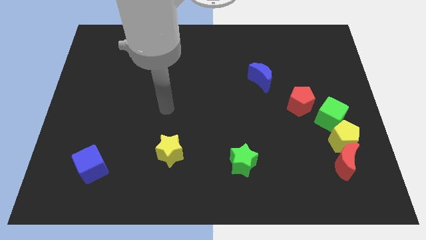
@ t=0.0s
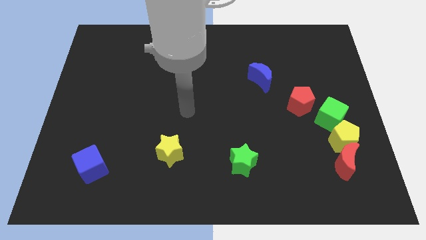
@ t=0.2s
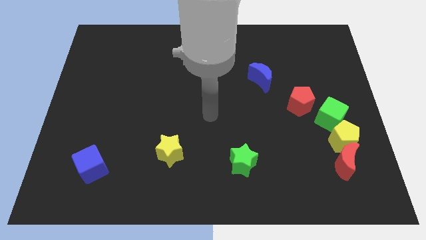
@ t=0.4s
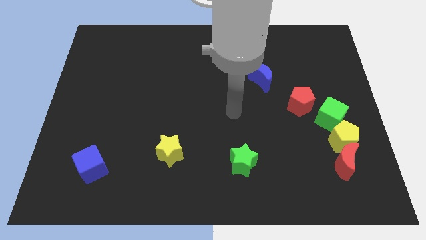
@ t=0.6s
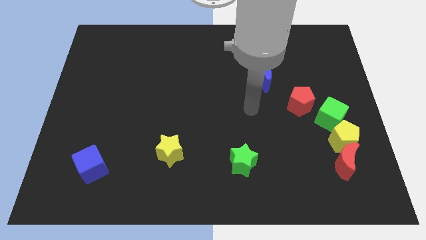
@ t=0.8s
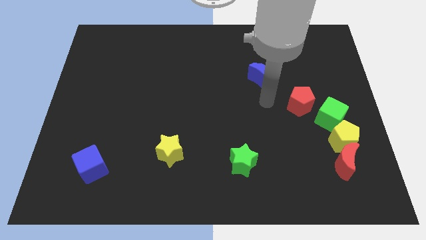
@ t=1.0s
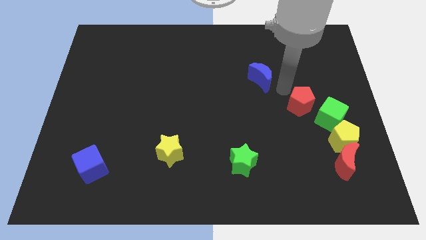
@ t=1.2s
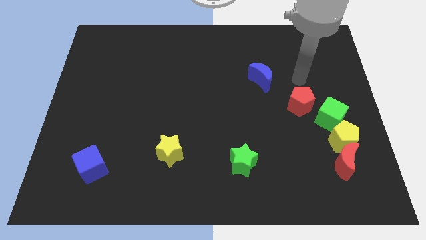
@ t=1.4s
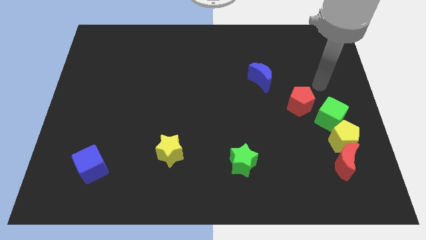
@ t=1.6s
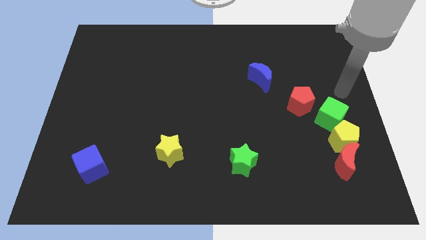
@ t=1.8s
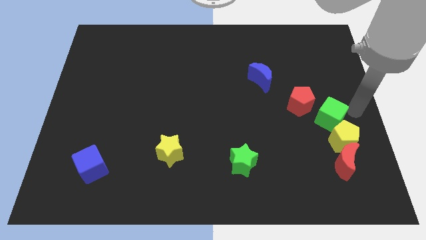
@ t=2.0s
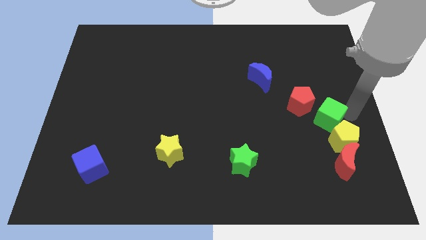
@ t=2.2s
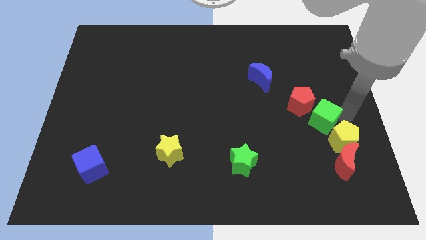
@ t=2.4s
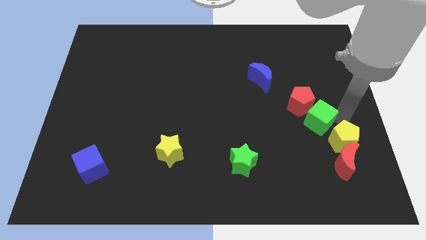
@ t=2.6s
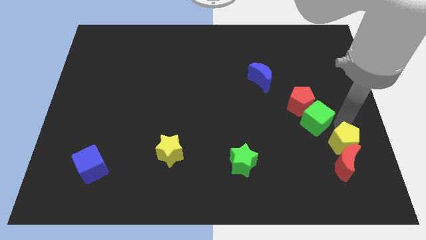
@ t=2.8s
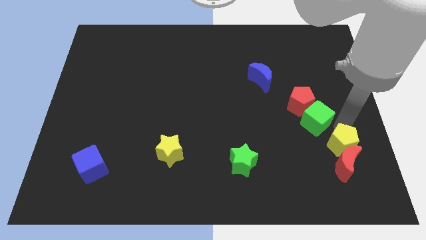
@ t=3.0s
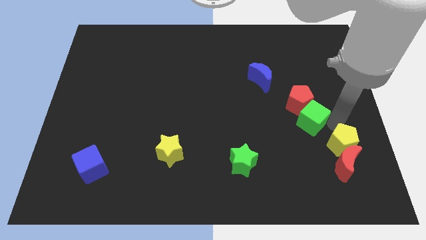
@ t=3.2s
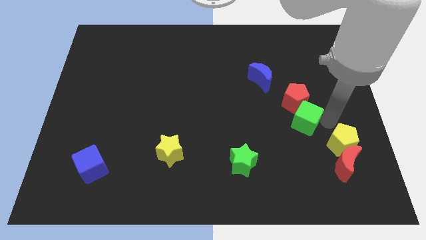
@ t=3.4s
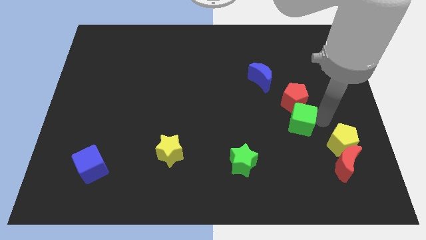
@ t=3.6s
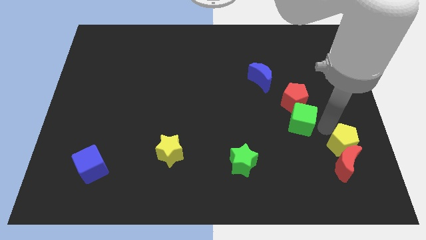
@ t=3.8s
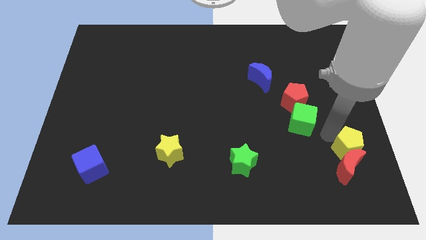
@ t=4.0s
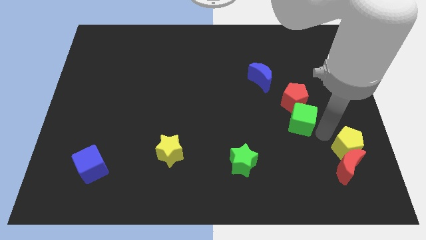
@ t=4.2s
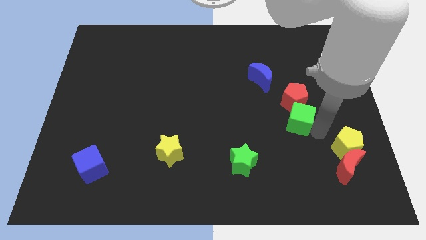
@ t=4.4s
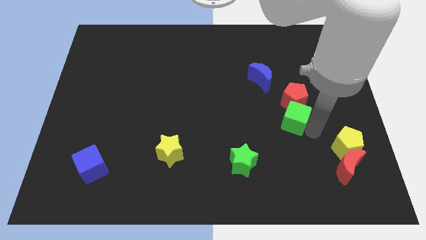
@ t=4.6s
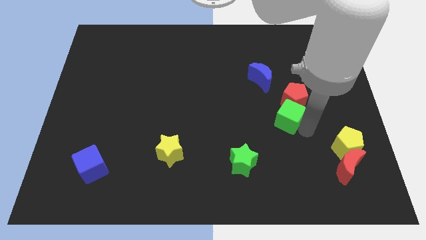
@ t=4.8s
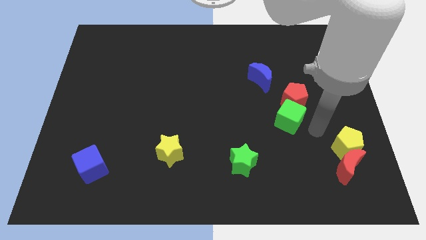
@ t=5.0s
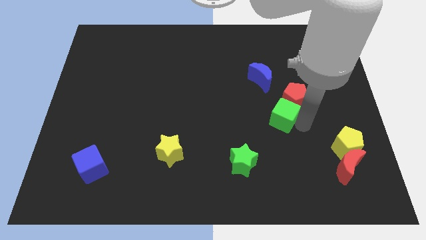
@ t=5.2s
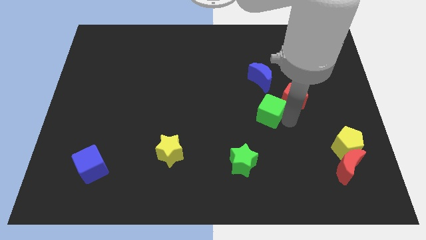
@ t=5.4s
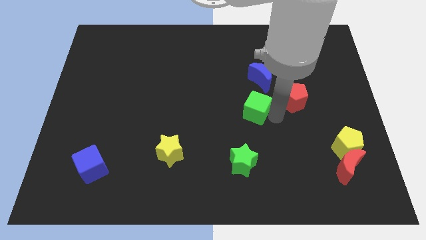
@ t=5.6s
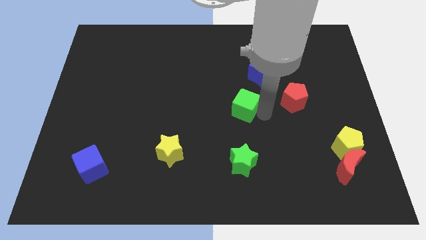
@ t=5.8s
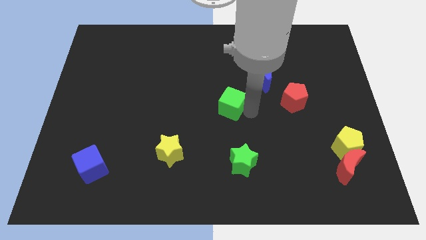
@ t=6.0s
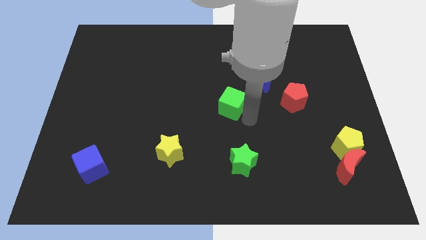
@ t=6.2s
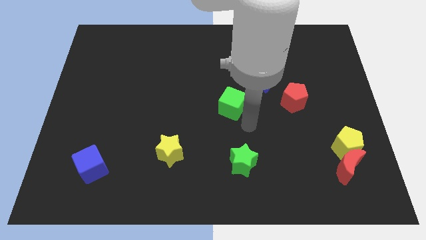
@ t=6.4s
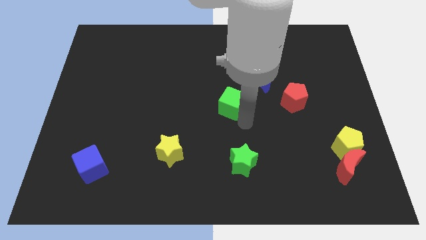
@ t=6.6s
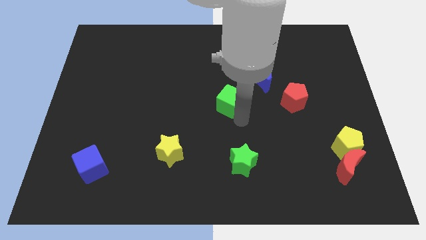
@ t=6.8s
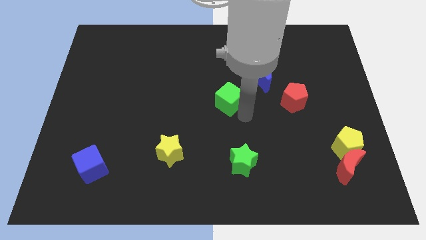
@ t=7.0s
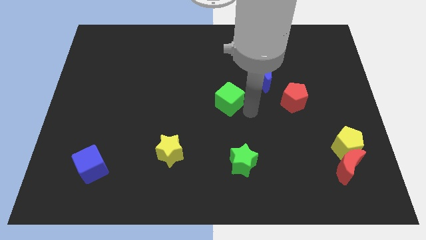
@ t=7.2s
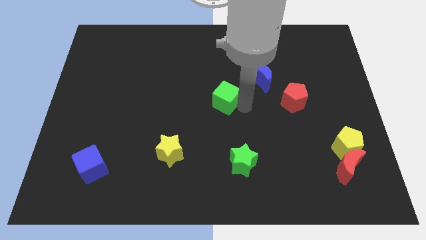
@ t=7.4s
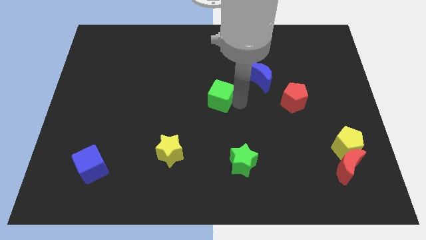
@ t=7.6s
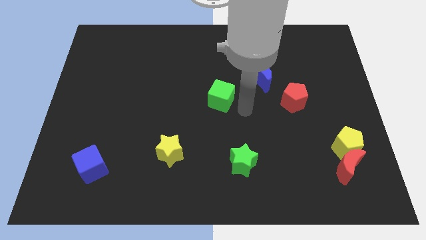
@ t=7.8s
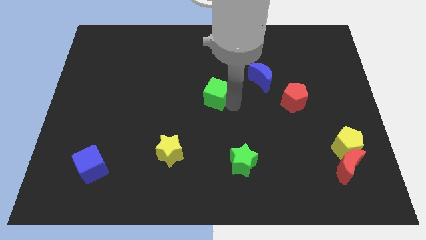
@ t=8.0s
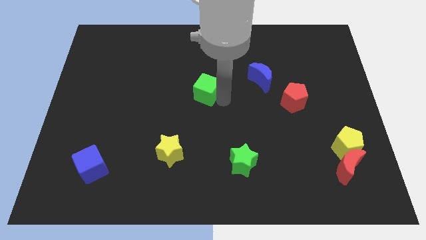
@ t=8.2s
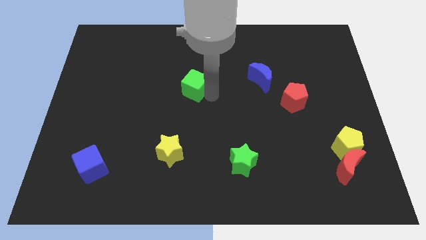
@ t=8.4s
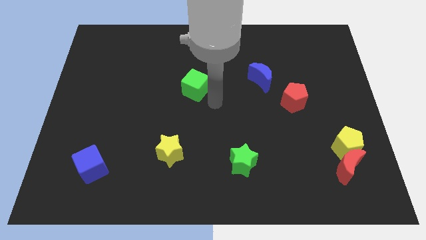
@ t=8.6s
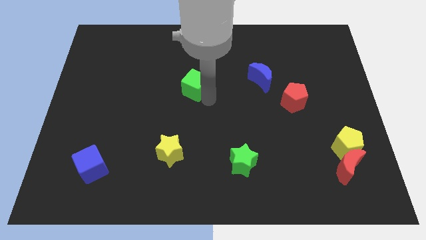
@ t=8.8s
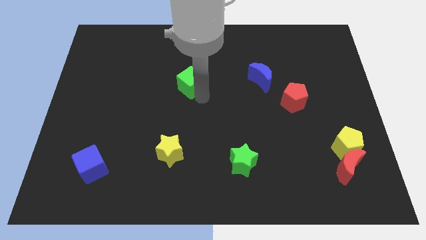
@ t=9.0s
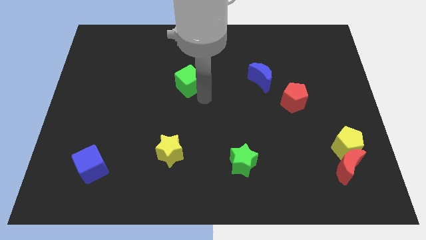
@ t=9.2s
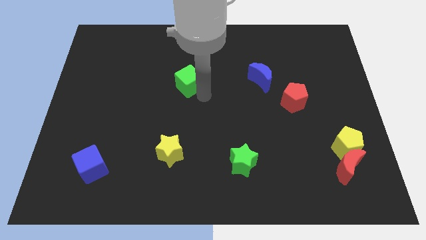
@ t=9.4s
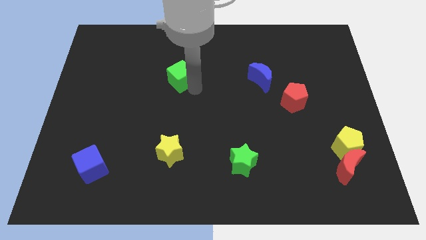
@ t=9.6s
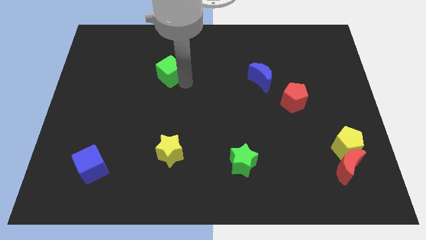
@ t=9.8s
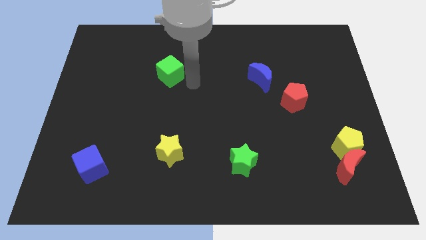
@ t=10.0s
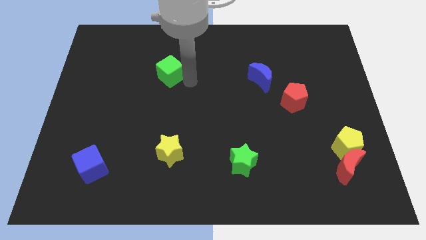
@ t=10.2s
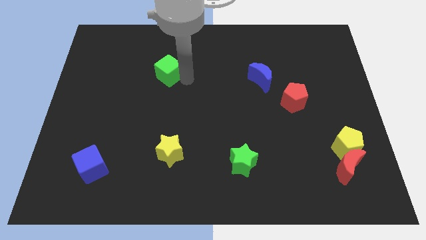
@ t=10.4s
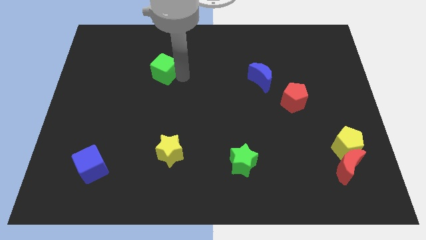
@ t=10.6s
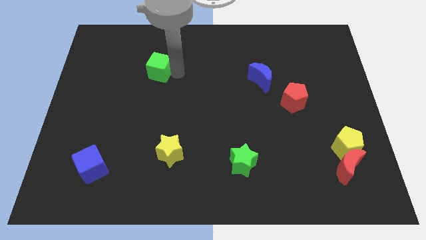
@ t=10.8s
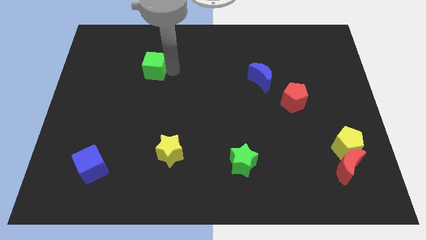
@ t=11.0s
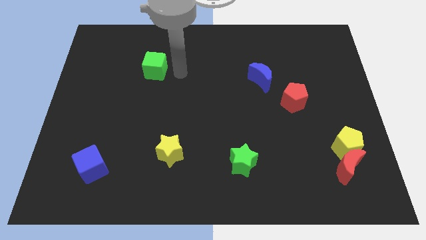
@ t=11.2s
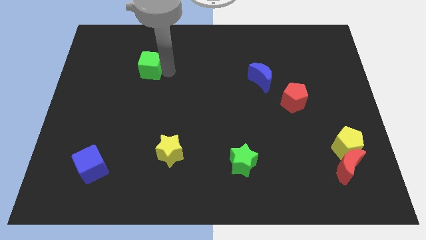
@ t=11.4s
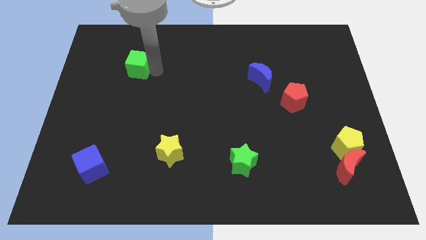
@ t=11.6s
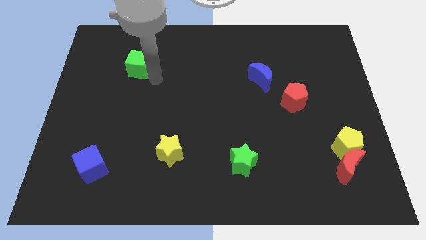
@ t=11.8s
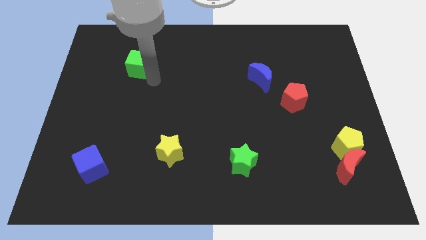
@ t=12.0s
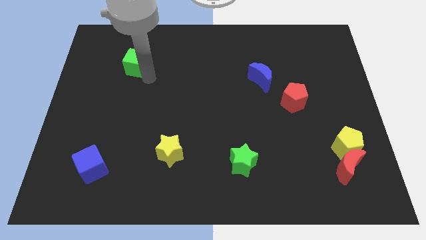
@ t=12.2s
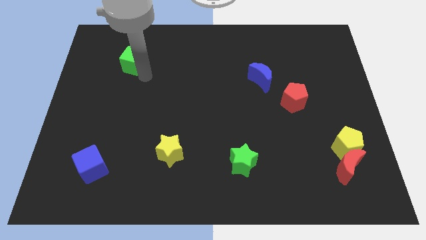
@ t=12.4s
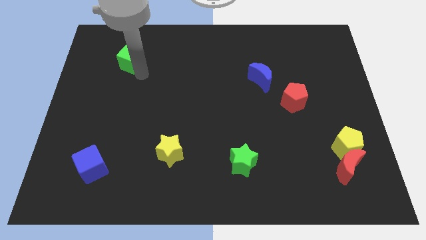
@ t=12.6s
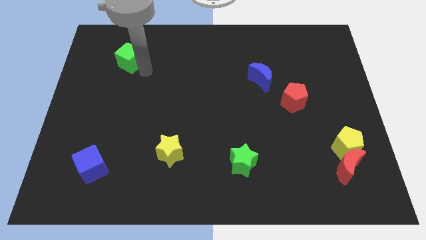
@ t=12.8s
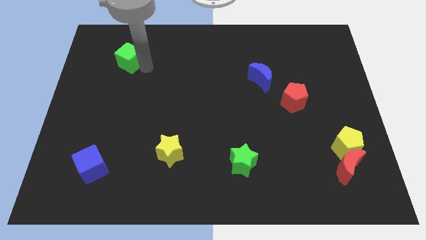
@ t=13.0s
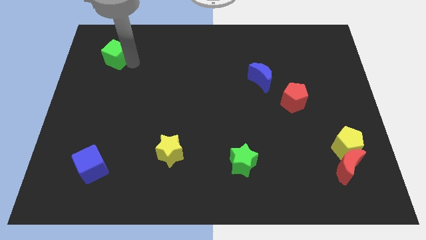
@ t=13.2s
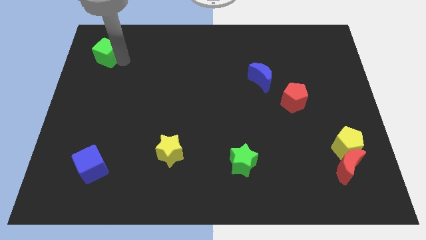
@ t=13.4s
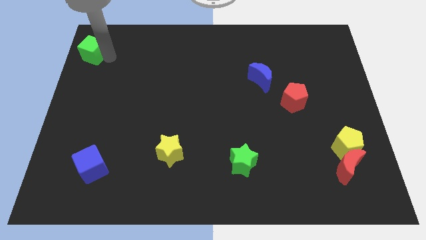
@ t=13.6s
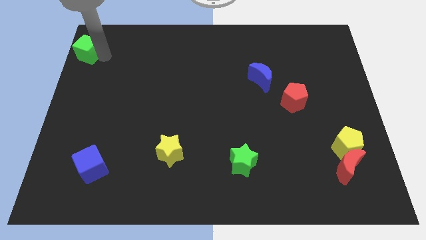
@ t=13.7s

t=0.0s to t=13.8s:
push the green cube to the top left corner
